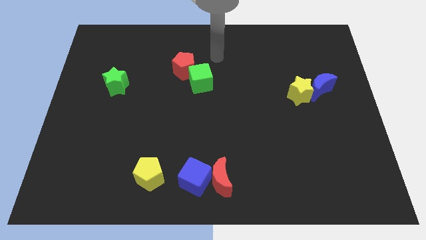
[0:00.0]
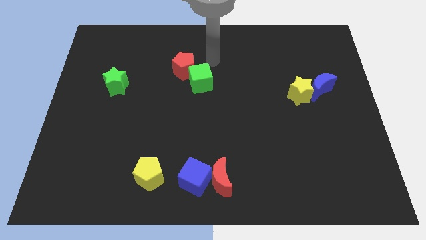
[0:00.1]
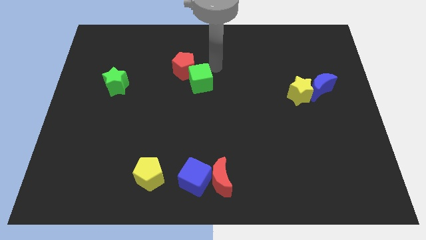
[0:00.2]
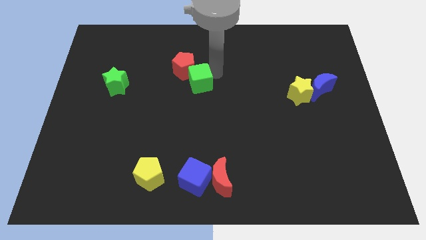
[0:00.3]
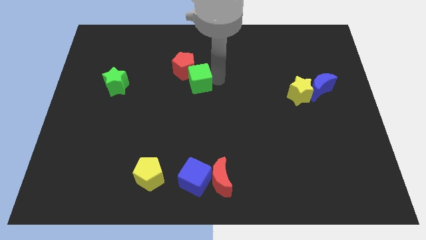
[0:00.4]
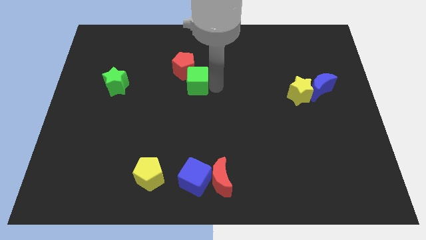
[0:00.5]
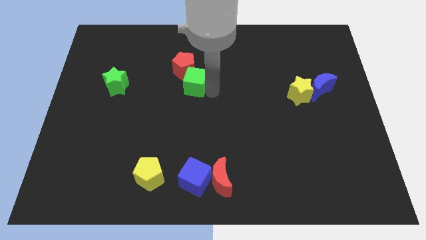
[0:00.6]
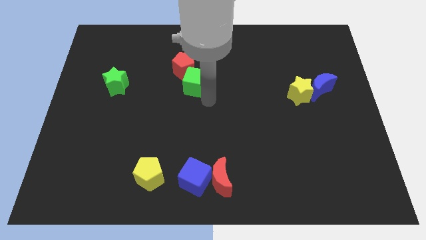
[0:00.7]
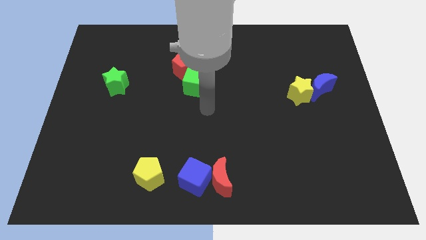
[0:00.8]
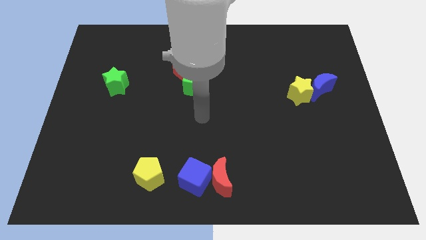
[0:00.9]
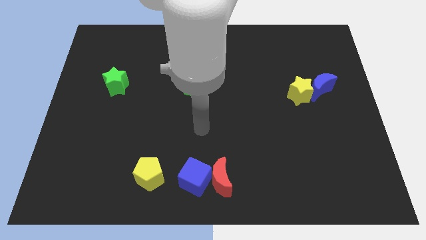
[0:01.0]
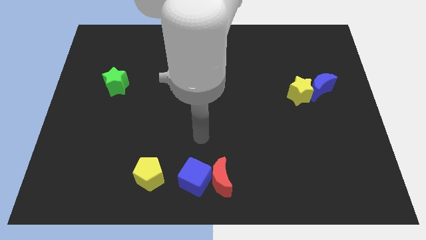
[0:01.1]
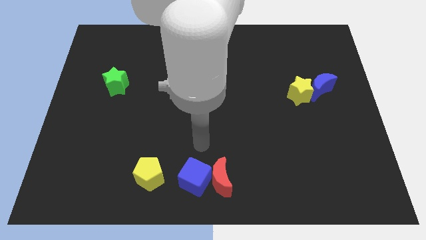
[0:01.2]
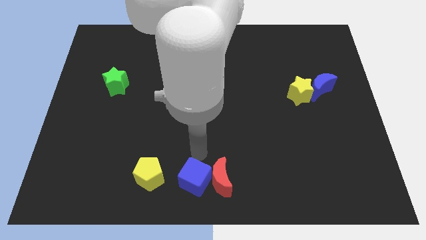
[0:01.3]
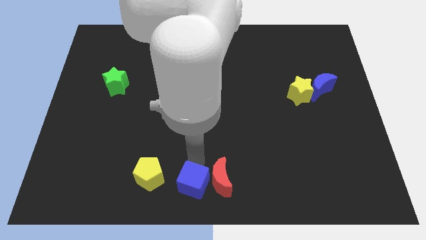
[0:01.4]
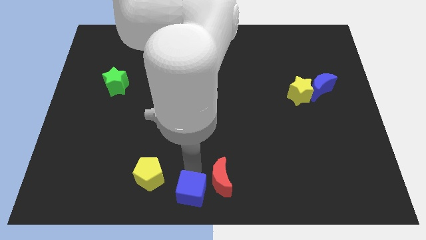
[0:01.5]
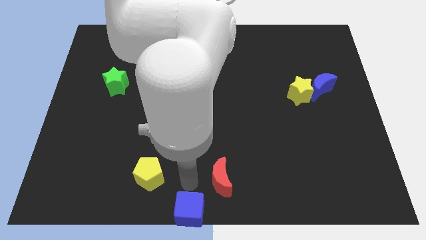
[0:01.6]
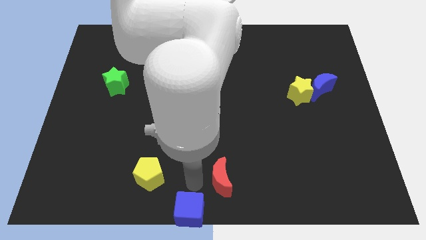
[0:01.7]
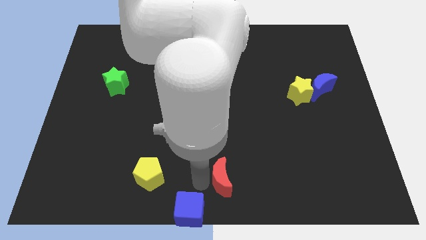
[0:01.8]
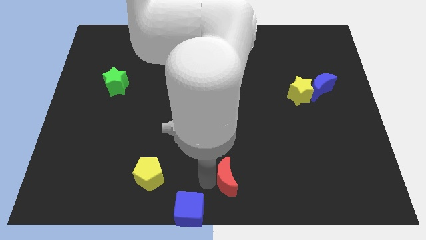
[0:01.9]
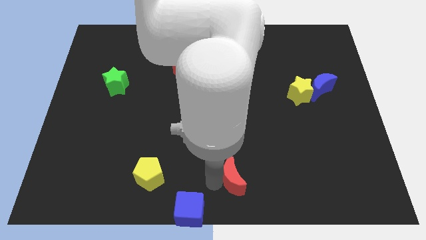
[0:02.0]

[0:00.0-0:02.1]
separate the red moon from the blue cube

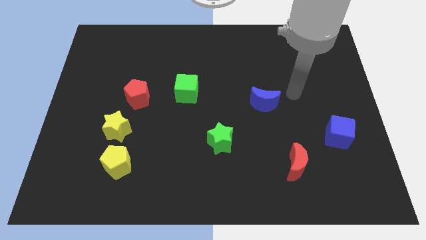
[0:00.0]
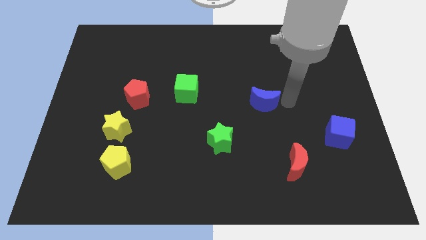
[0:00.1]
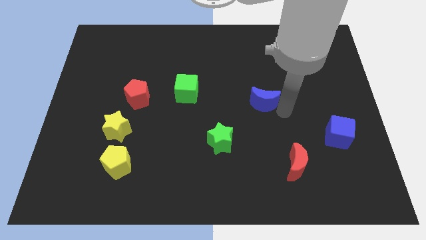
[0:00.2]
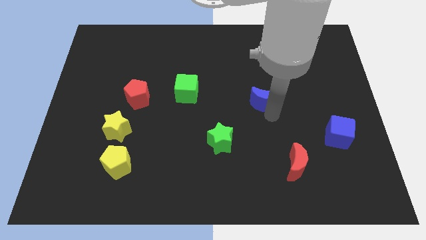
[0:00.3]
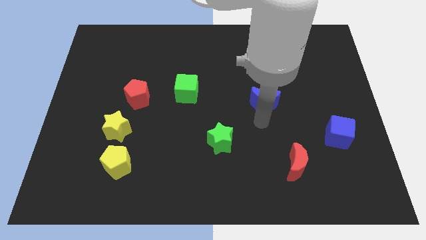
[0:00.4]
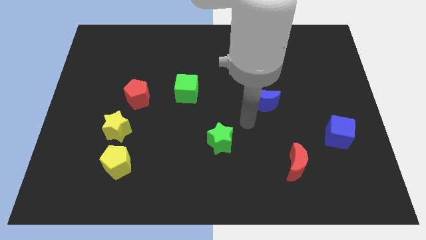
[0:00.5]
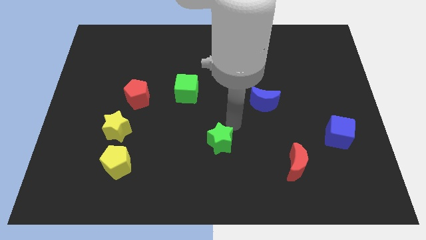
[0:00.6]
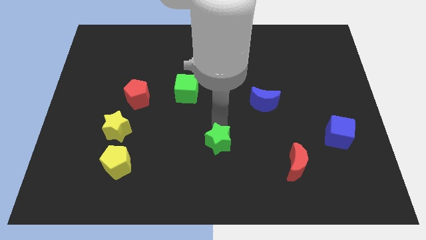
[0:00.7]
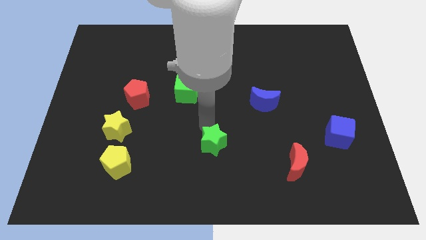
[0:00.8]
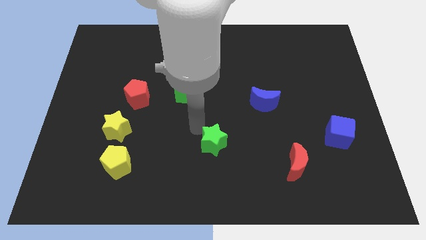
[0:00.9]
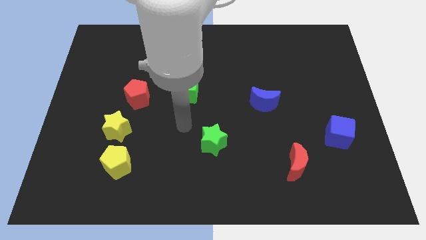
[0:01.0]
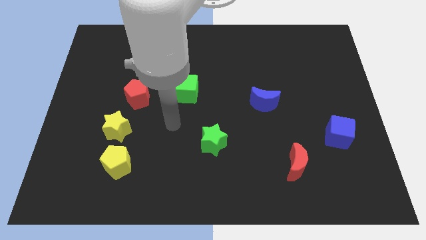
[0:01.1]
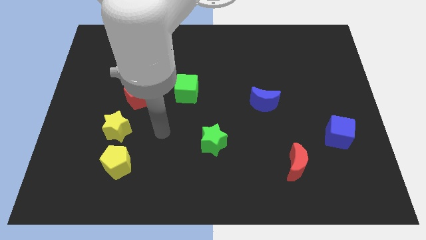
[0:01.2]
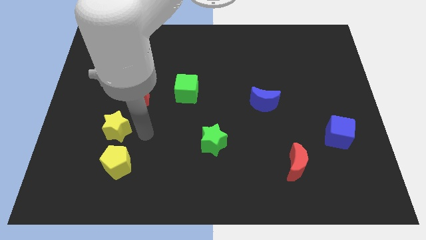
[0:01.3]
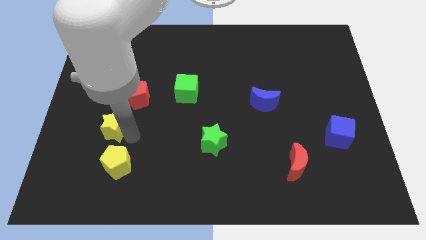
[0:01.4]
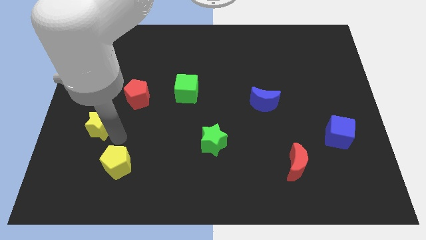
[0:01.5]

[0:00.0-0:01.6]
separate the yellow pentagon from the yellow star

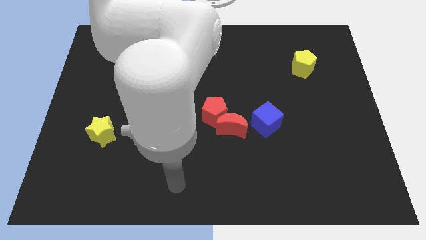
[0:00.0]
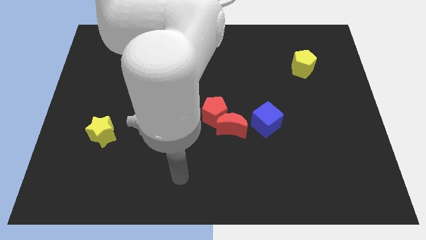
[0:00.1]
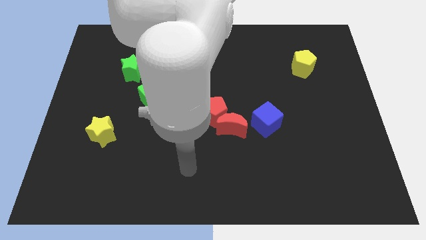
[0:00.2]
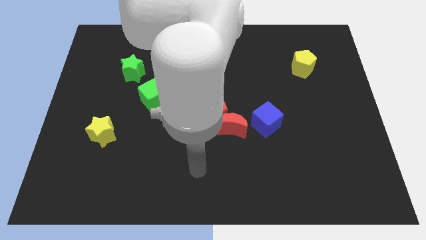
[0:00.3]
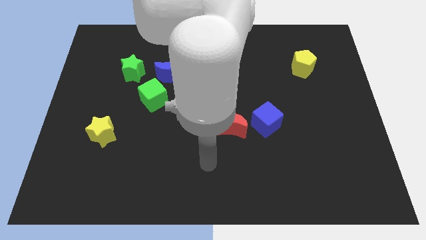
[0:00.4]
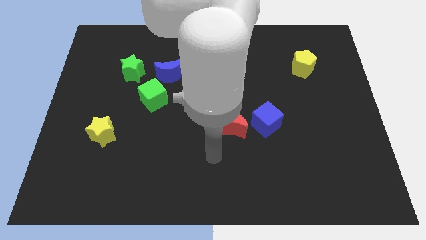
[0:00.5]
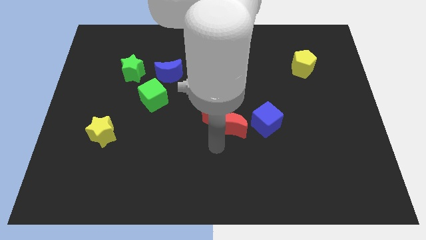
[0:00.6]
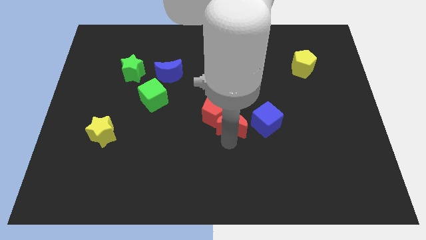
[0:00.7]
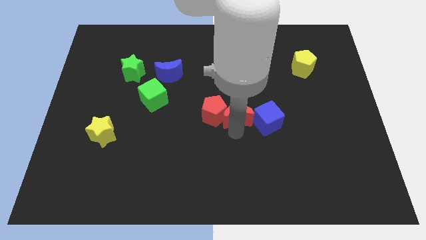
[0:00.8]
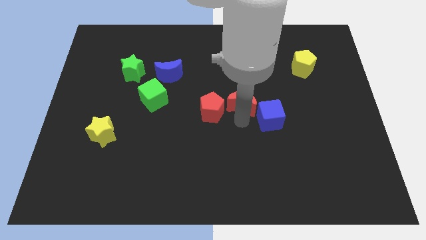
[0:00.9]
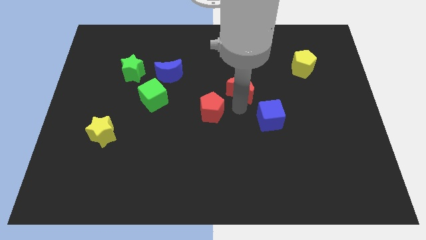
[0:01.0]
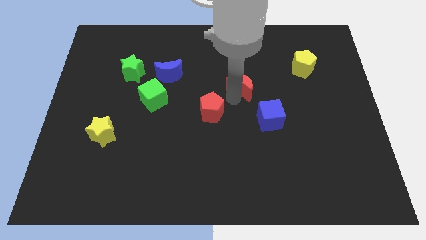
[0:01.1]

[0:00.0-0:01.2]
separate the red pentagon from the red moon

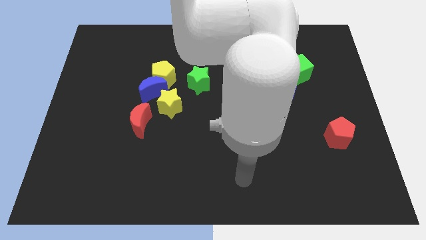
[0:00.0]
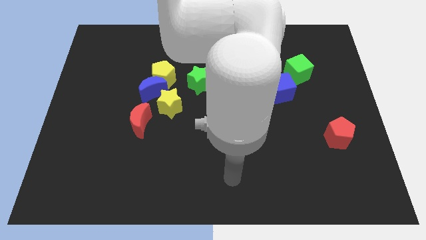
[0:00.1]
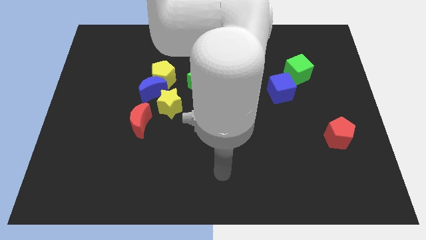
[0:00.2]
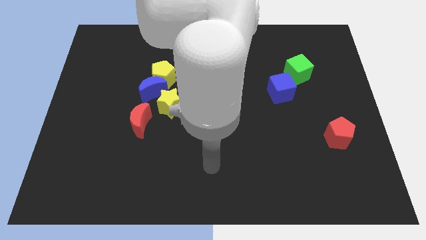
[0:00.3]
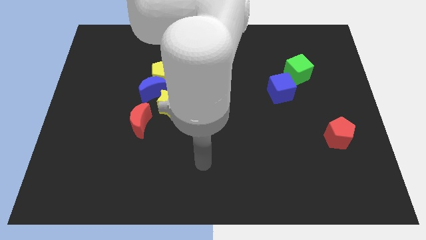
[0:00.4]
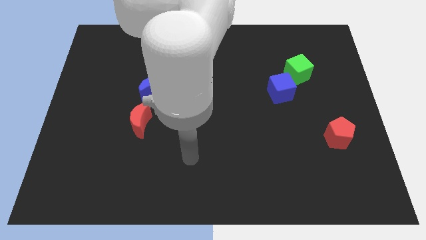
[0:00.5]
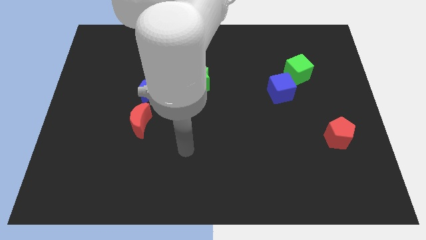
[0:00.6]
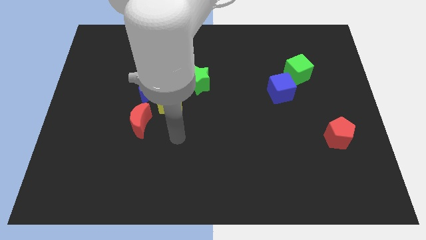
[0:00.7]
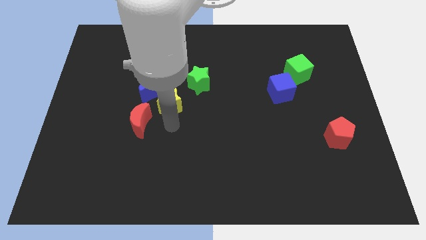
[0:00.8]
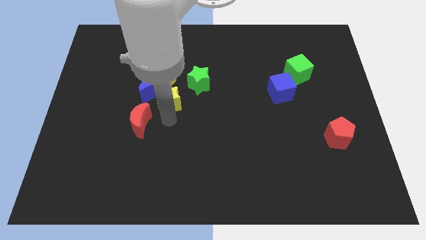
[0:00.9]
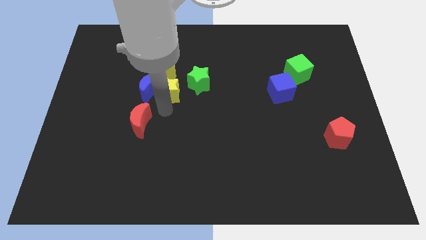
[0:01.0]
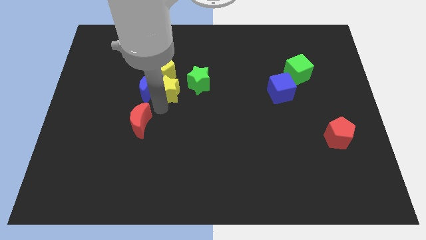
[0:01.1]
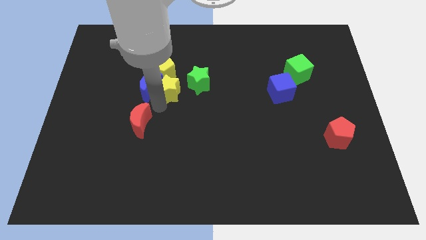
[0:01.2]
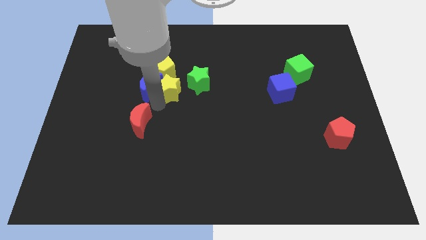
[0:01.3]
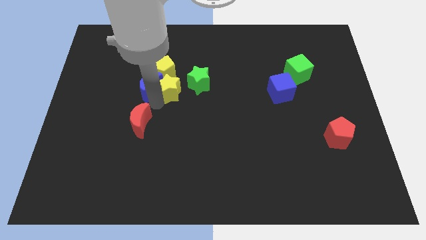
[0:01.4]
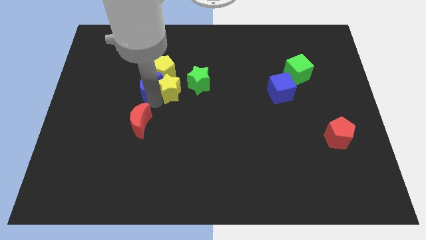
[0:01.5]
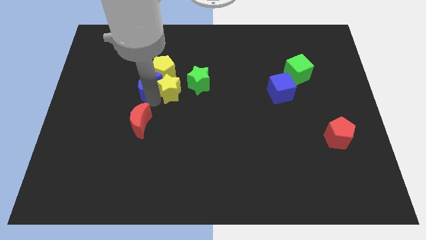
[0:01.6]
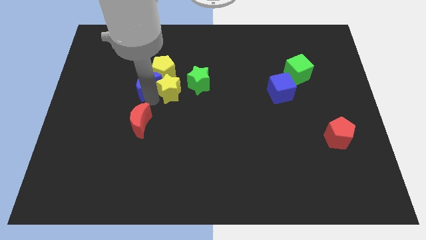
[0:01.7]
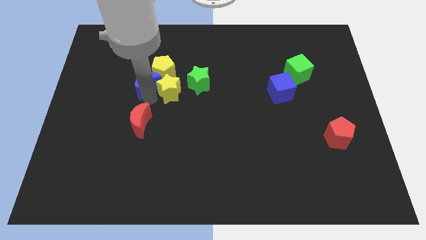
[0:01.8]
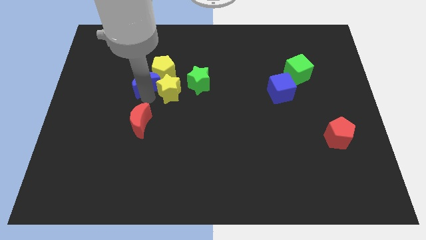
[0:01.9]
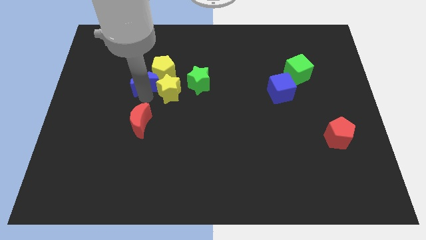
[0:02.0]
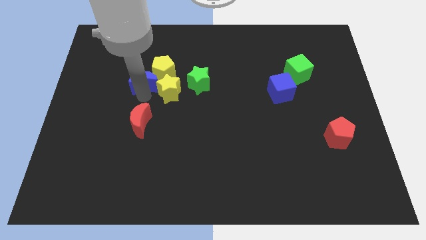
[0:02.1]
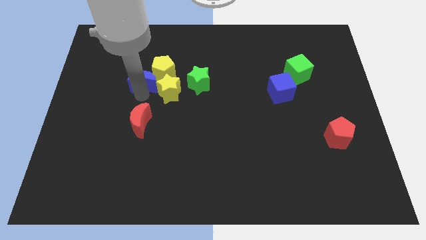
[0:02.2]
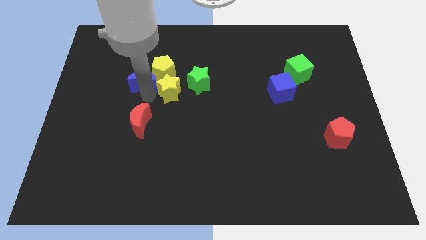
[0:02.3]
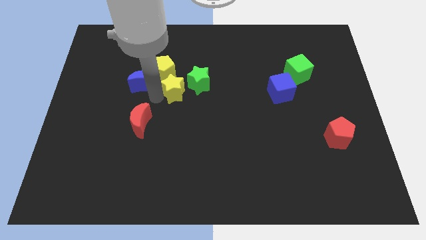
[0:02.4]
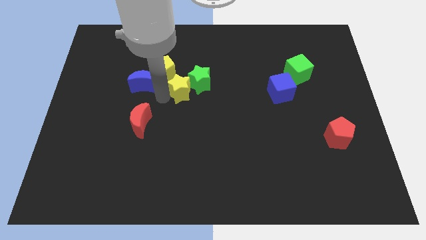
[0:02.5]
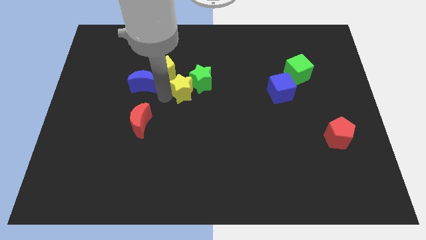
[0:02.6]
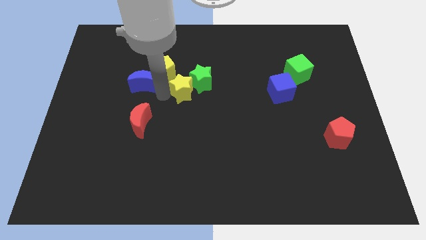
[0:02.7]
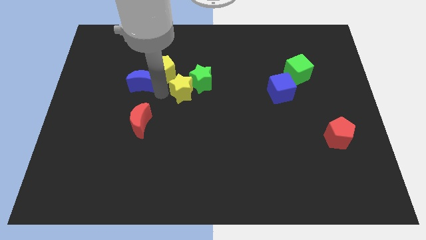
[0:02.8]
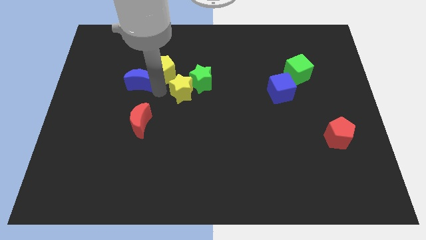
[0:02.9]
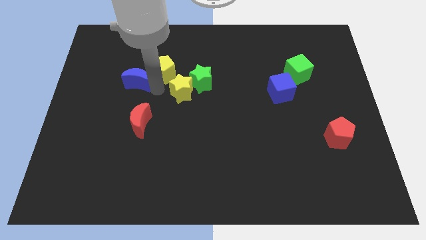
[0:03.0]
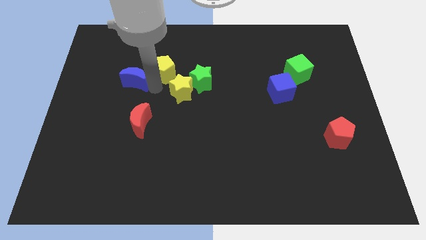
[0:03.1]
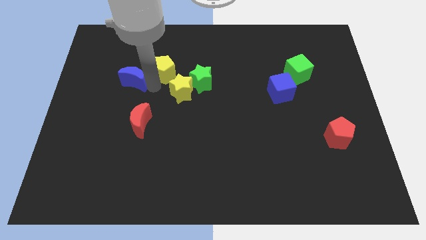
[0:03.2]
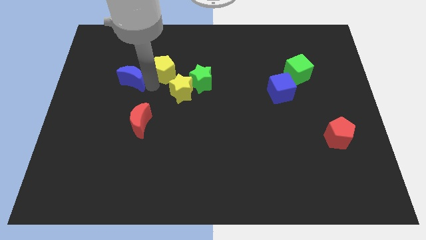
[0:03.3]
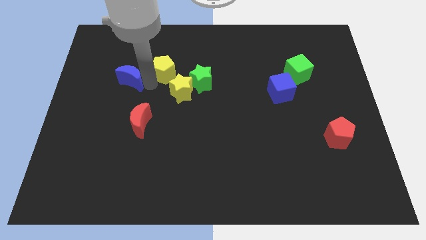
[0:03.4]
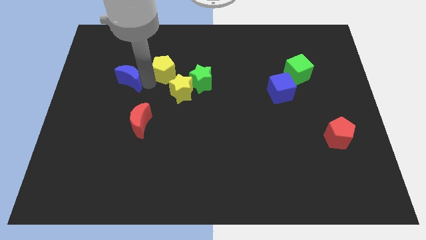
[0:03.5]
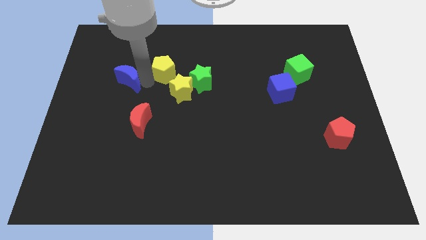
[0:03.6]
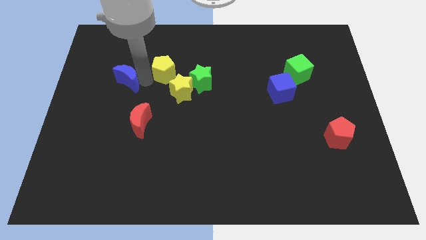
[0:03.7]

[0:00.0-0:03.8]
pull the blue moon apart from the yellow pentagon, yellow star, and red moon

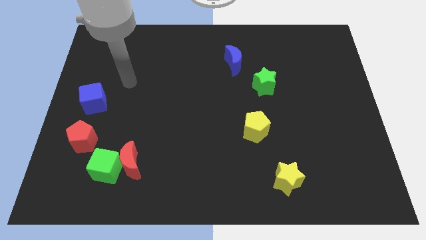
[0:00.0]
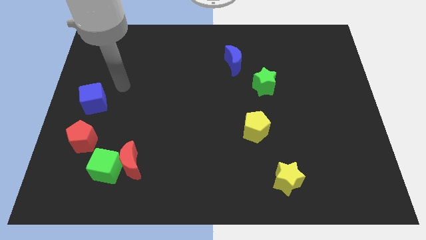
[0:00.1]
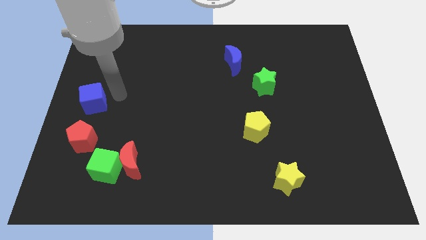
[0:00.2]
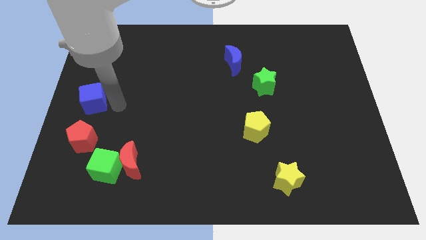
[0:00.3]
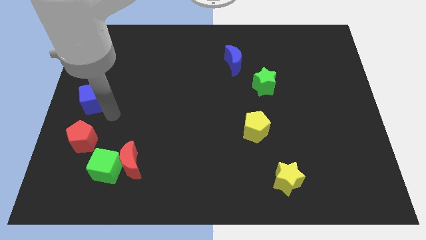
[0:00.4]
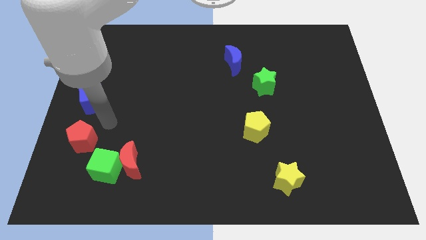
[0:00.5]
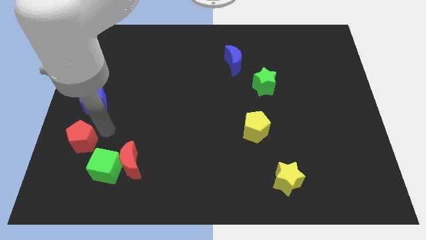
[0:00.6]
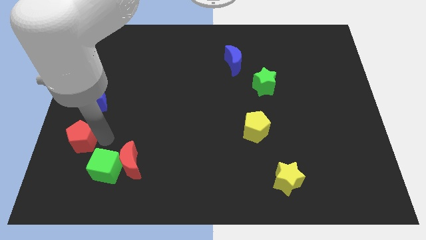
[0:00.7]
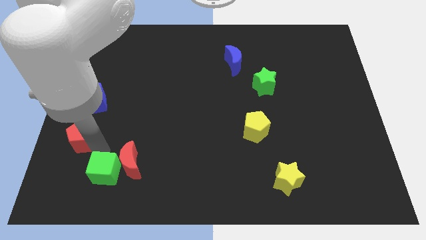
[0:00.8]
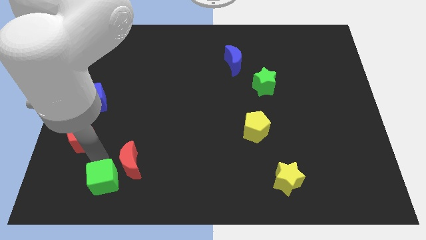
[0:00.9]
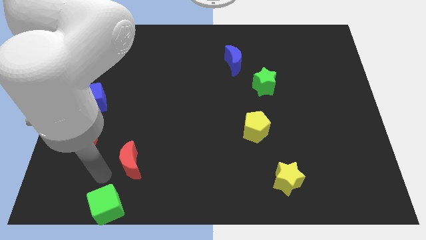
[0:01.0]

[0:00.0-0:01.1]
move the red moon away from the green cube
